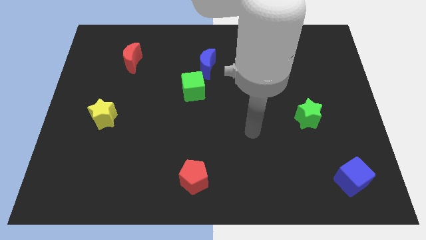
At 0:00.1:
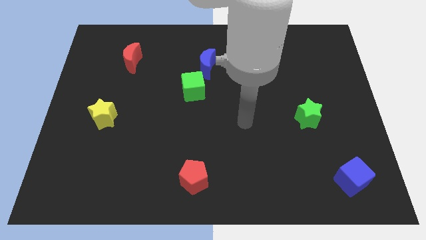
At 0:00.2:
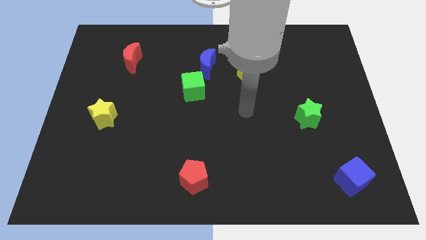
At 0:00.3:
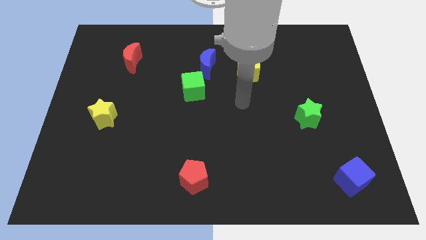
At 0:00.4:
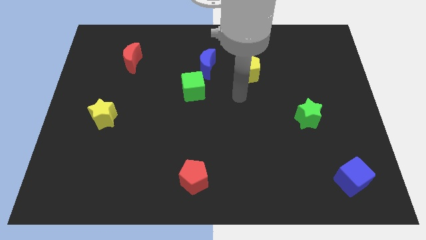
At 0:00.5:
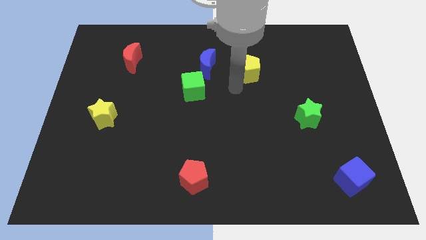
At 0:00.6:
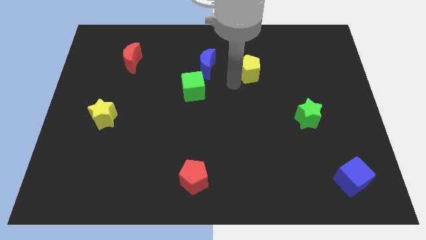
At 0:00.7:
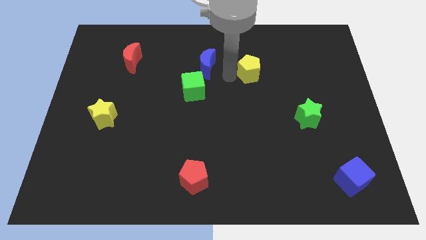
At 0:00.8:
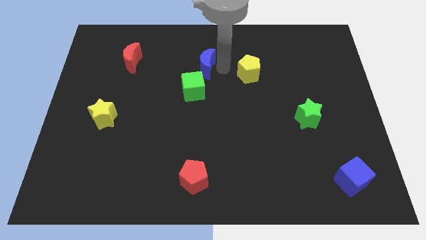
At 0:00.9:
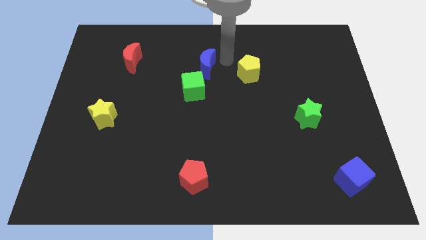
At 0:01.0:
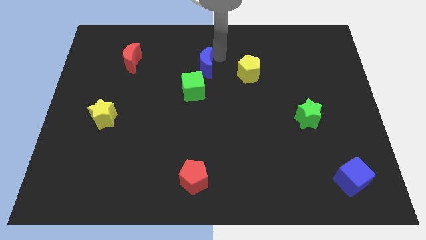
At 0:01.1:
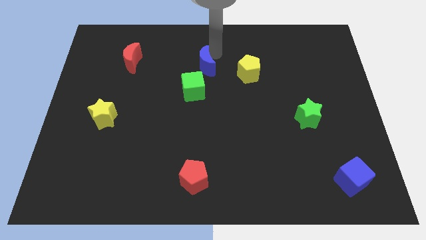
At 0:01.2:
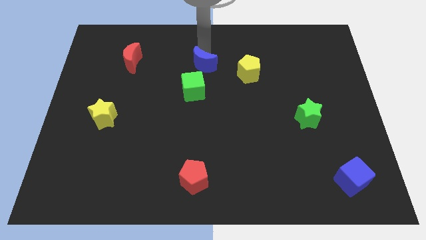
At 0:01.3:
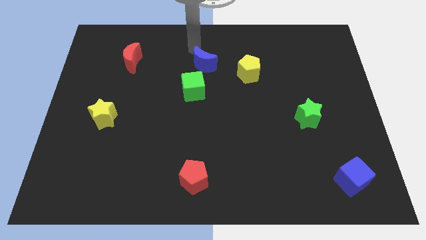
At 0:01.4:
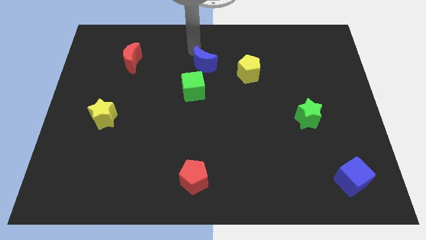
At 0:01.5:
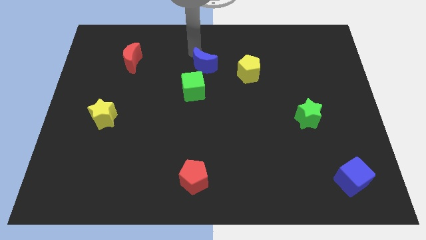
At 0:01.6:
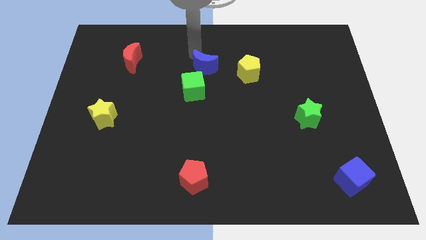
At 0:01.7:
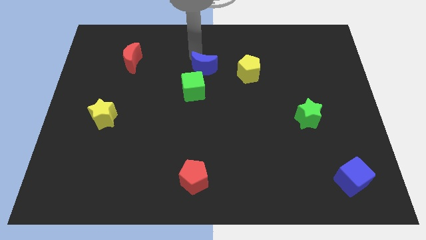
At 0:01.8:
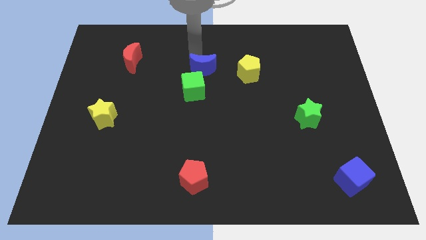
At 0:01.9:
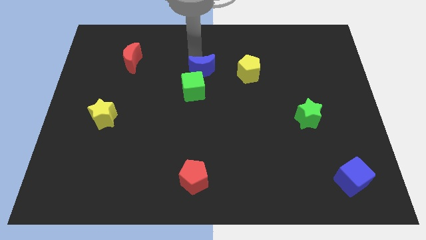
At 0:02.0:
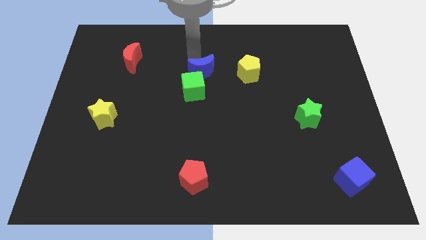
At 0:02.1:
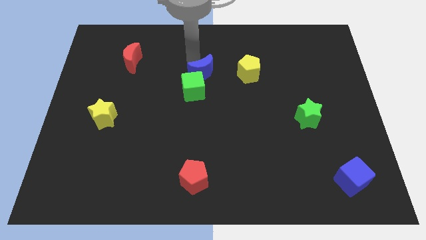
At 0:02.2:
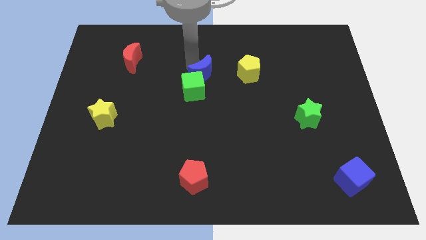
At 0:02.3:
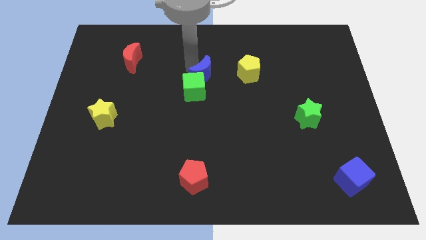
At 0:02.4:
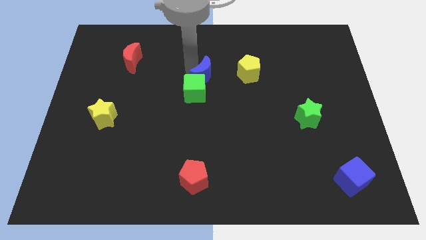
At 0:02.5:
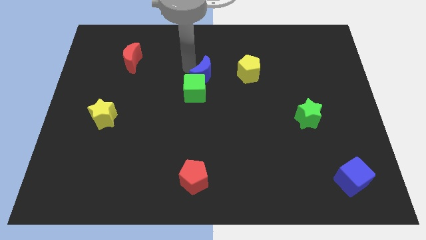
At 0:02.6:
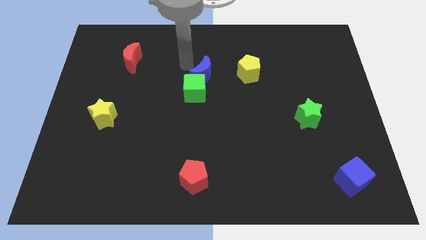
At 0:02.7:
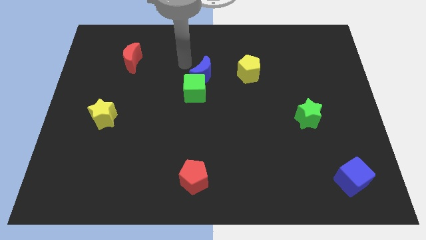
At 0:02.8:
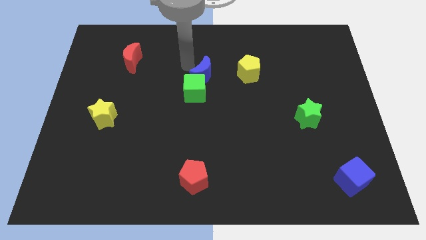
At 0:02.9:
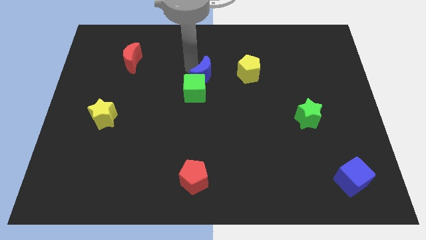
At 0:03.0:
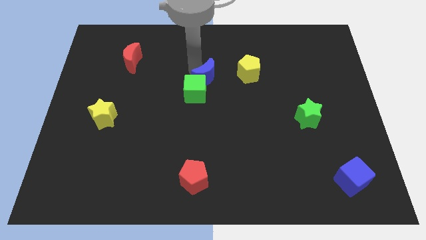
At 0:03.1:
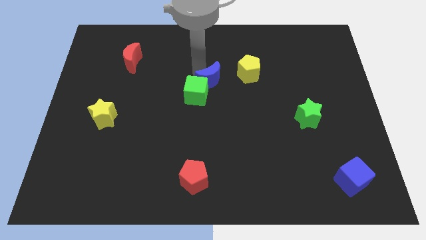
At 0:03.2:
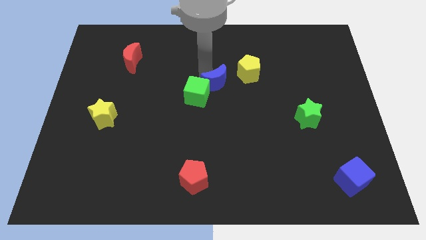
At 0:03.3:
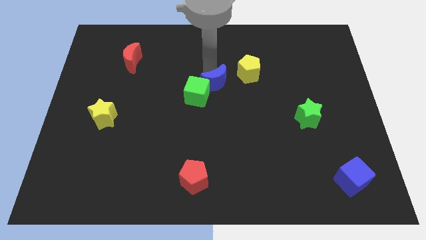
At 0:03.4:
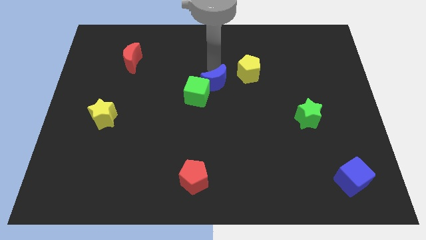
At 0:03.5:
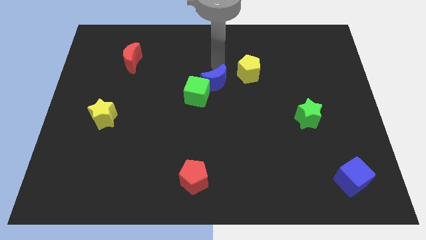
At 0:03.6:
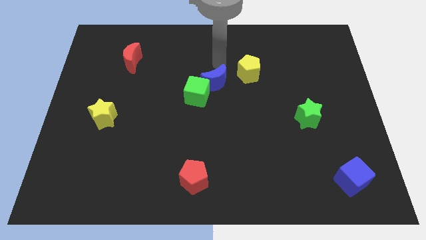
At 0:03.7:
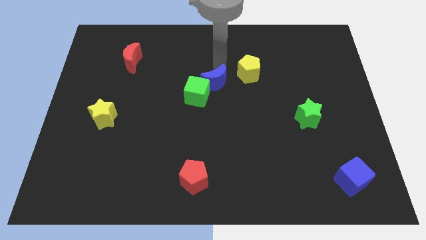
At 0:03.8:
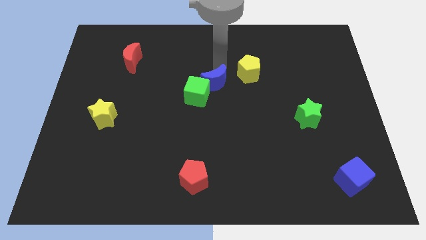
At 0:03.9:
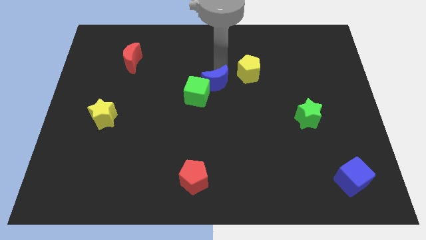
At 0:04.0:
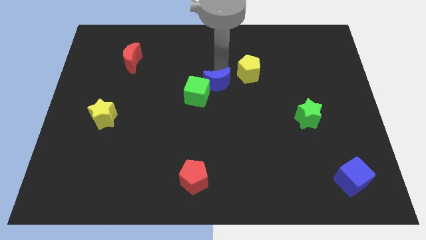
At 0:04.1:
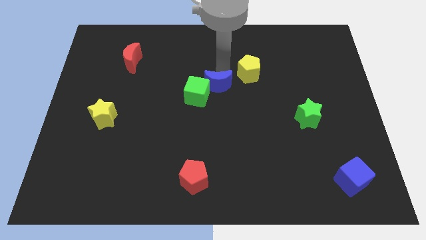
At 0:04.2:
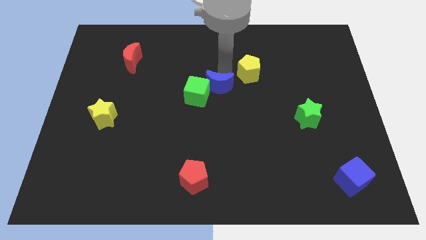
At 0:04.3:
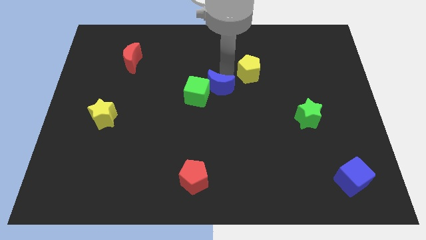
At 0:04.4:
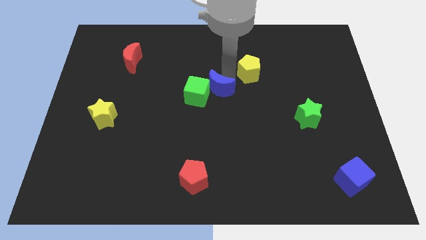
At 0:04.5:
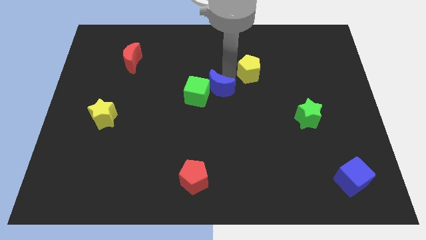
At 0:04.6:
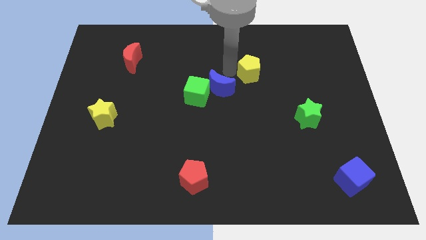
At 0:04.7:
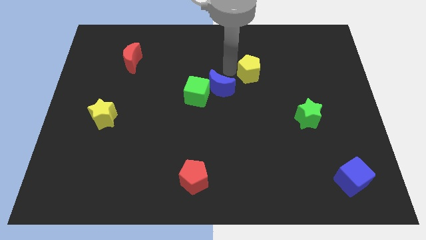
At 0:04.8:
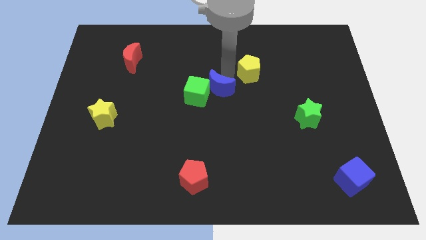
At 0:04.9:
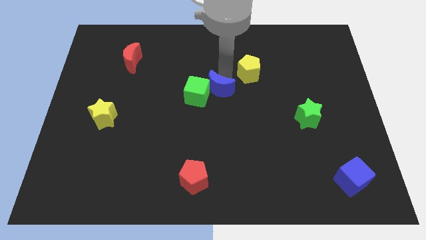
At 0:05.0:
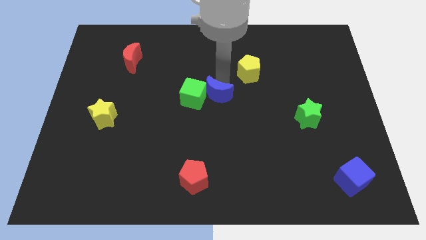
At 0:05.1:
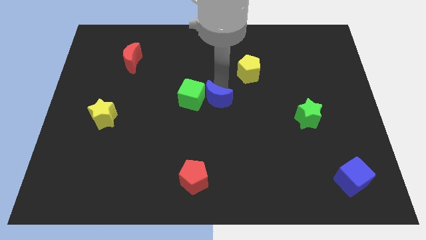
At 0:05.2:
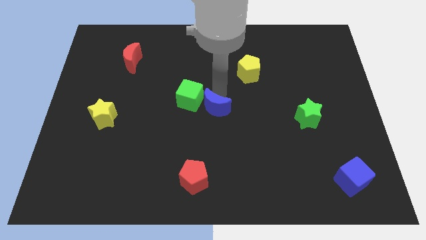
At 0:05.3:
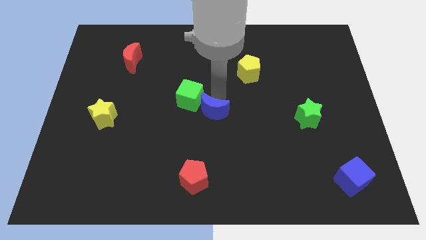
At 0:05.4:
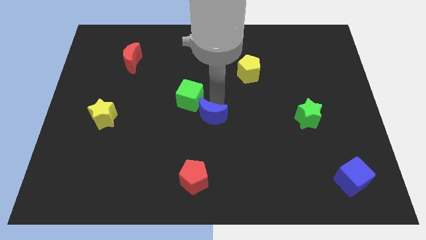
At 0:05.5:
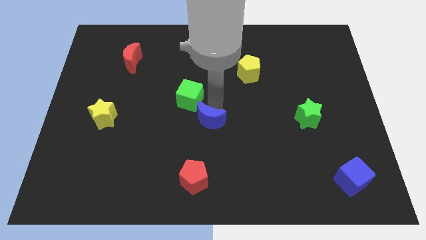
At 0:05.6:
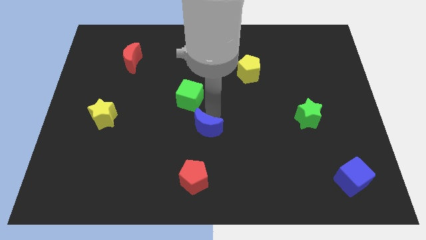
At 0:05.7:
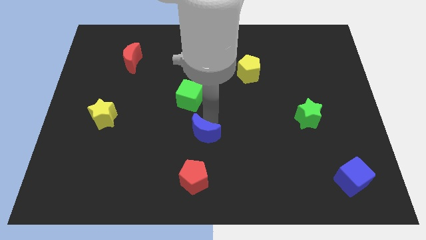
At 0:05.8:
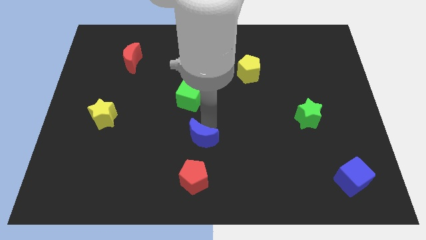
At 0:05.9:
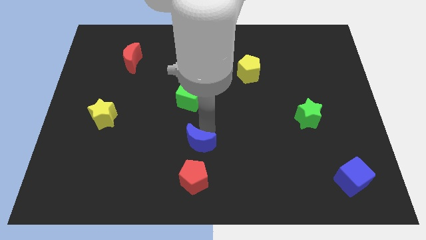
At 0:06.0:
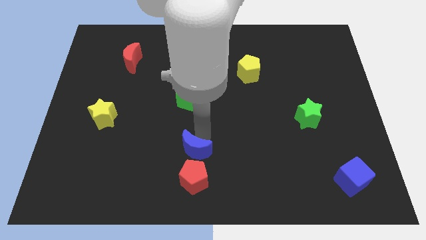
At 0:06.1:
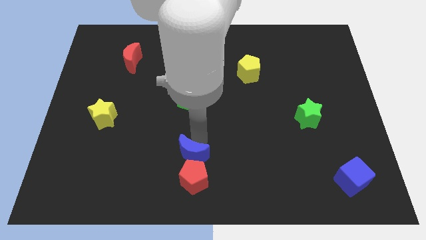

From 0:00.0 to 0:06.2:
move the blue moon to the red pentagon
